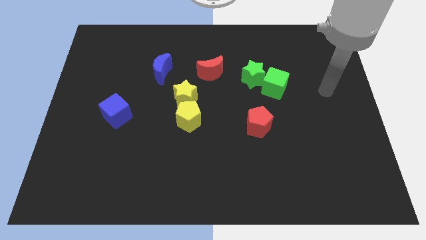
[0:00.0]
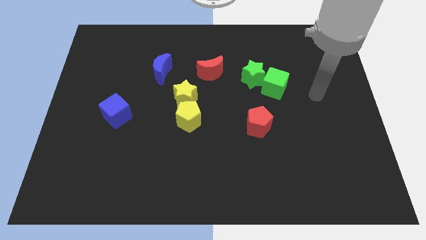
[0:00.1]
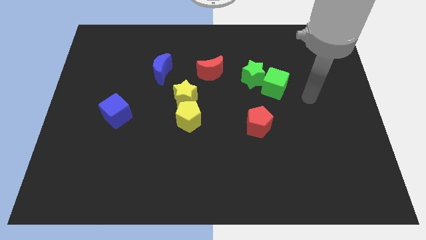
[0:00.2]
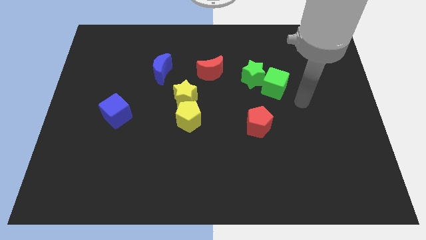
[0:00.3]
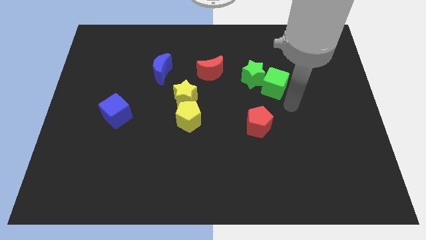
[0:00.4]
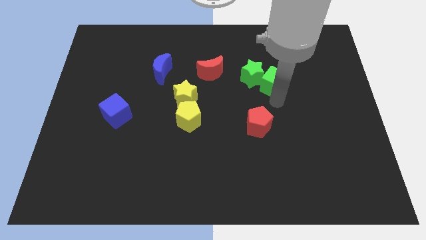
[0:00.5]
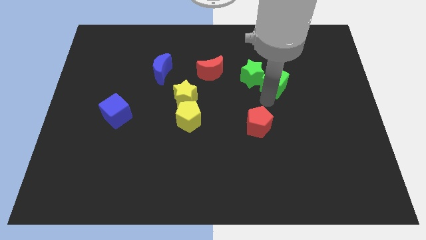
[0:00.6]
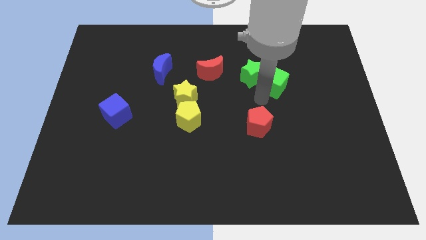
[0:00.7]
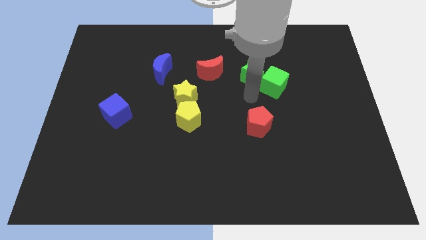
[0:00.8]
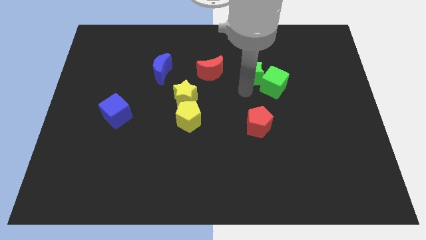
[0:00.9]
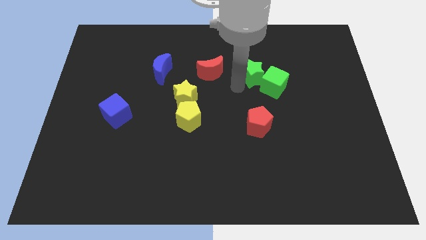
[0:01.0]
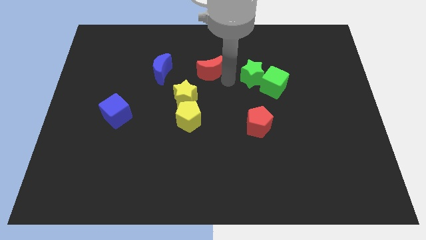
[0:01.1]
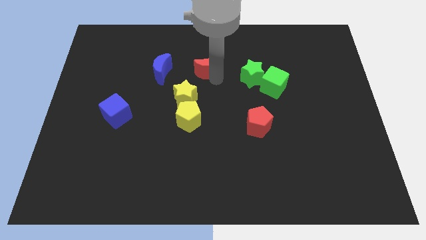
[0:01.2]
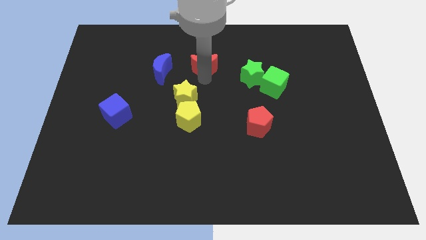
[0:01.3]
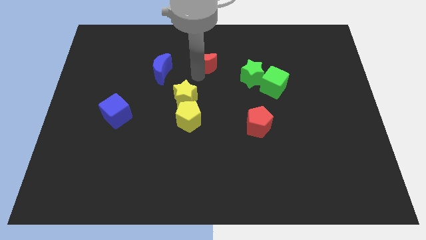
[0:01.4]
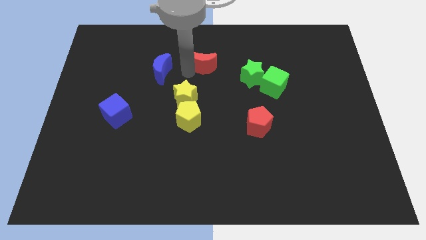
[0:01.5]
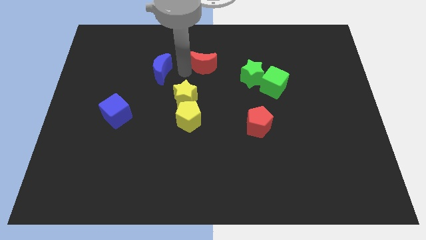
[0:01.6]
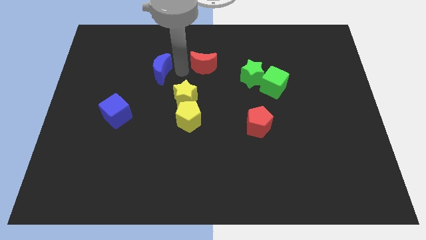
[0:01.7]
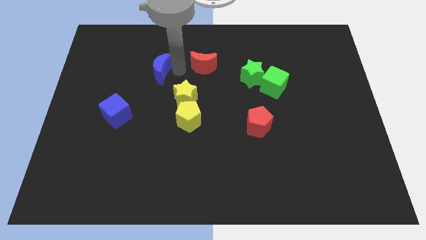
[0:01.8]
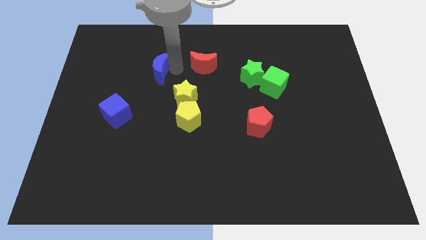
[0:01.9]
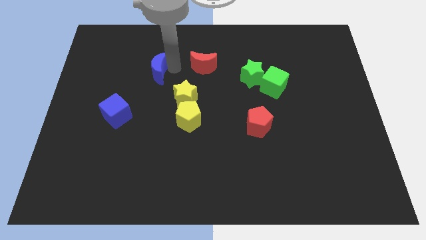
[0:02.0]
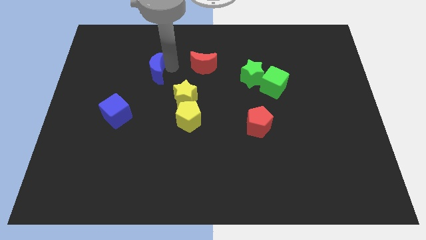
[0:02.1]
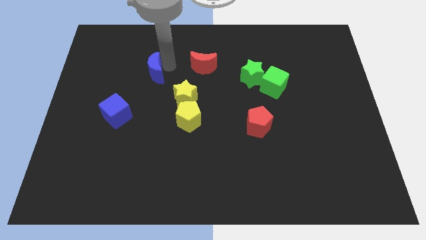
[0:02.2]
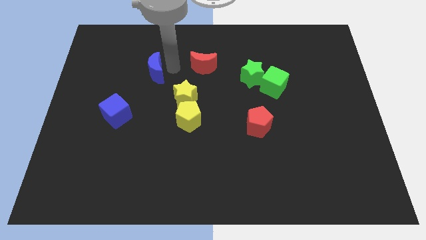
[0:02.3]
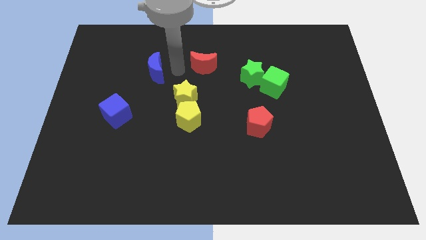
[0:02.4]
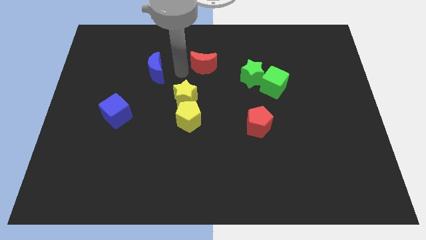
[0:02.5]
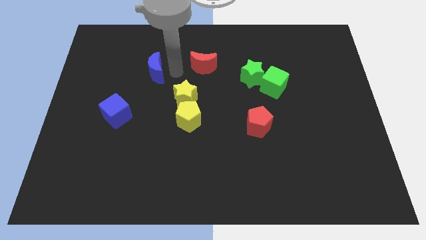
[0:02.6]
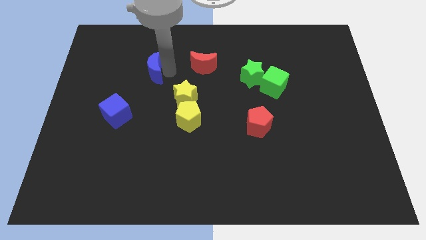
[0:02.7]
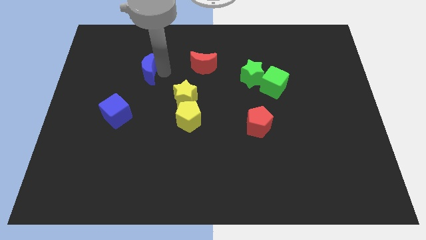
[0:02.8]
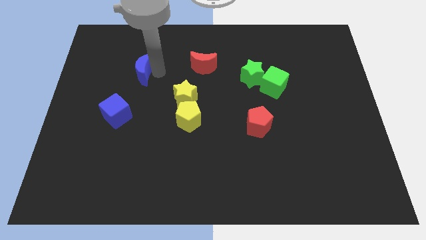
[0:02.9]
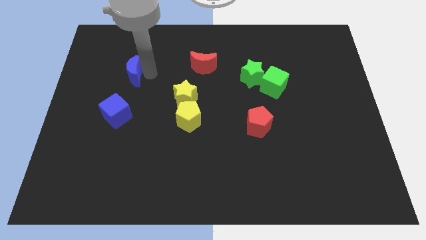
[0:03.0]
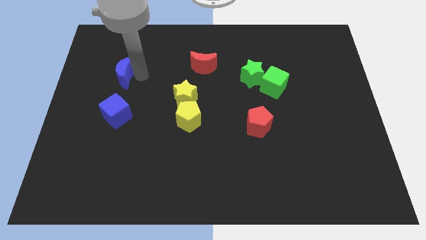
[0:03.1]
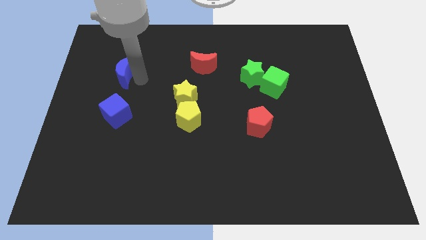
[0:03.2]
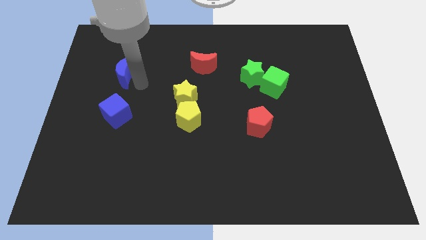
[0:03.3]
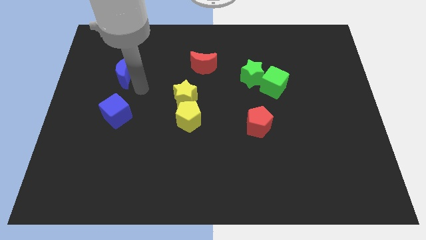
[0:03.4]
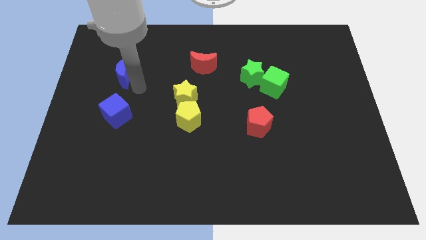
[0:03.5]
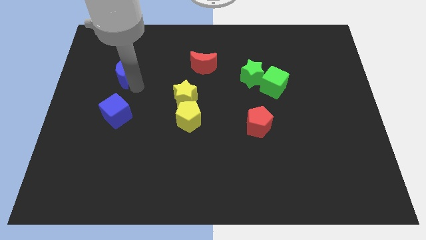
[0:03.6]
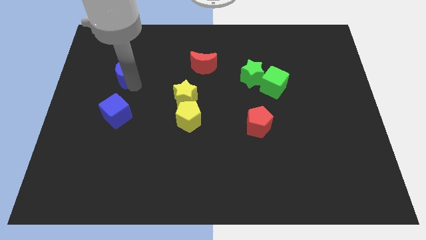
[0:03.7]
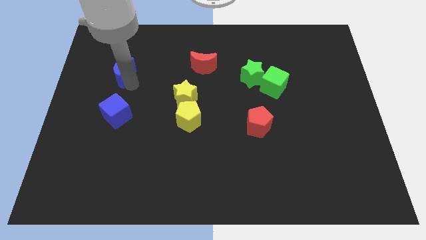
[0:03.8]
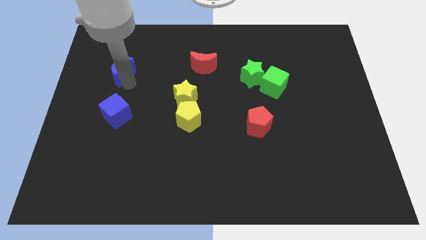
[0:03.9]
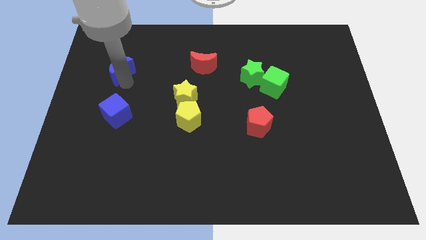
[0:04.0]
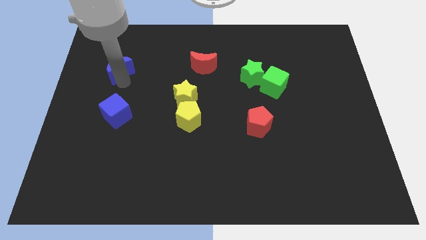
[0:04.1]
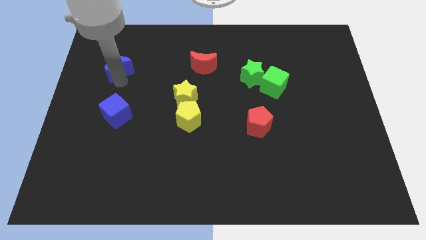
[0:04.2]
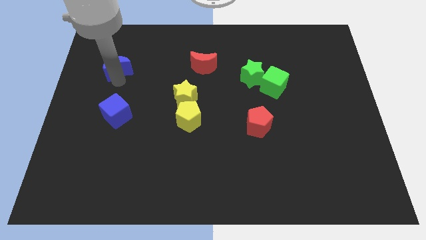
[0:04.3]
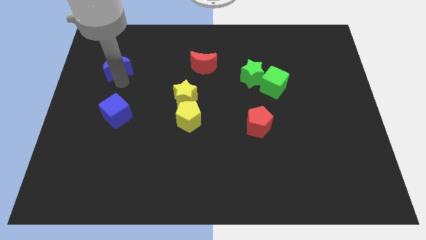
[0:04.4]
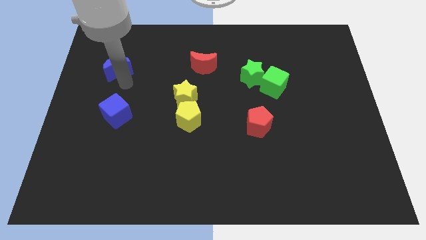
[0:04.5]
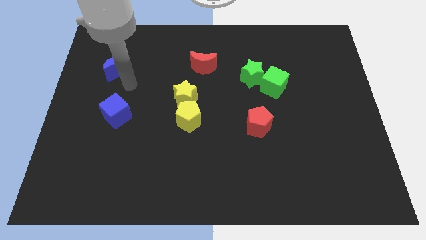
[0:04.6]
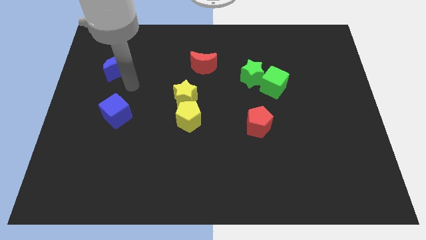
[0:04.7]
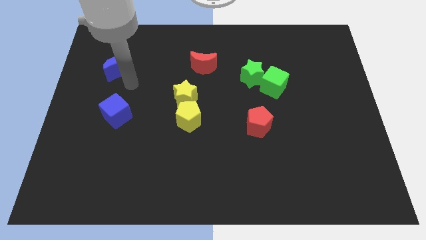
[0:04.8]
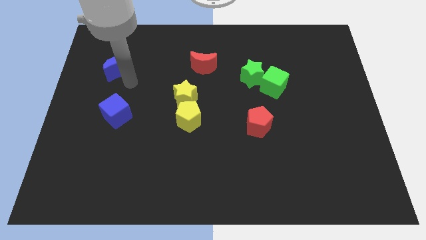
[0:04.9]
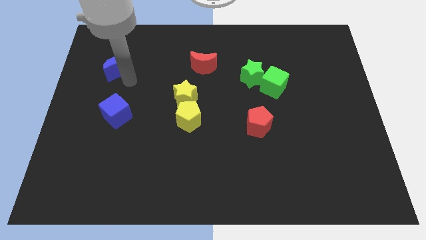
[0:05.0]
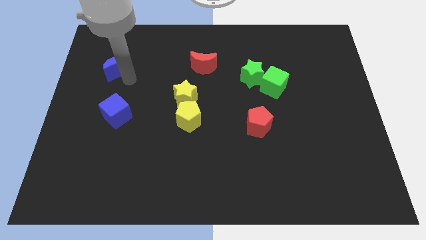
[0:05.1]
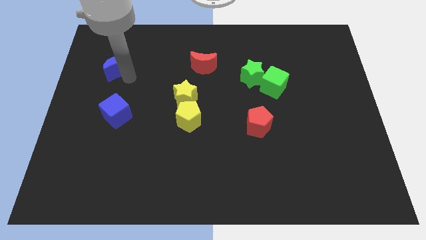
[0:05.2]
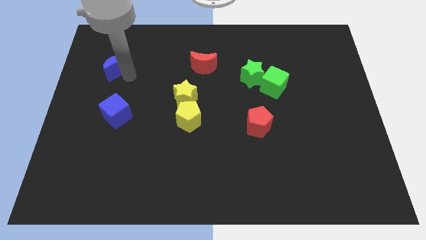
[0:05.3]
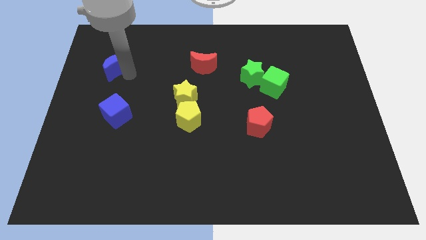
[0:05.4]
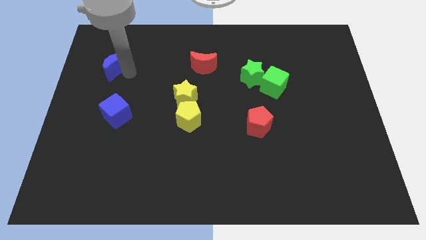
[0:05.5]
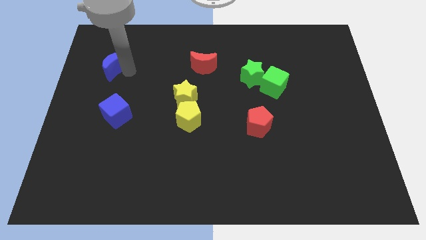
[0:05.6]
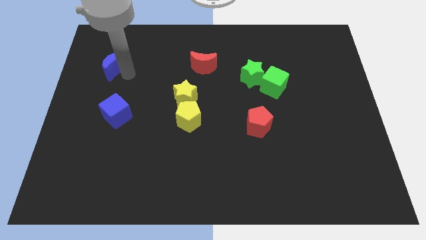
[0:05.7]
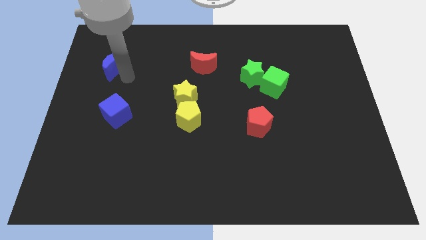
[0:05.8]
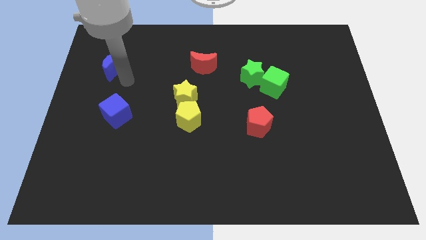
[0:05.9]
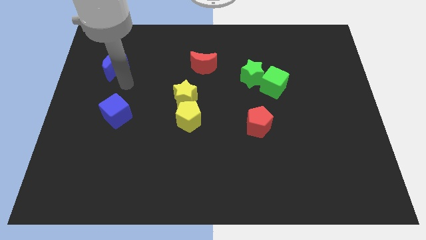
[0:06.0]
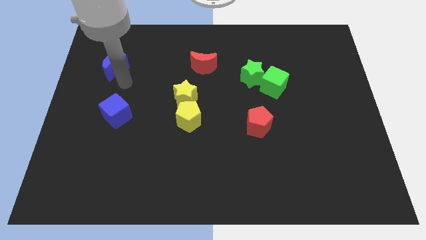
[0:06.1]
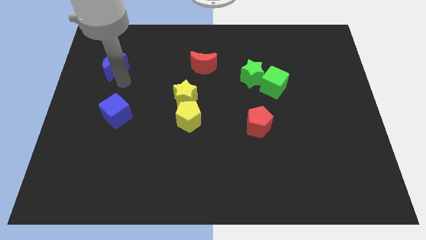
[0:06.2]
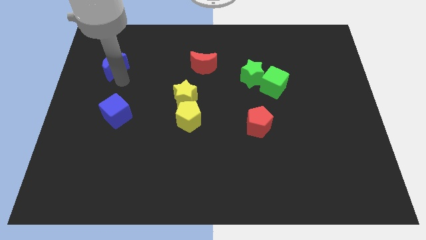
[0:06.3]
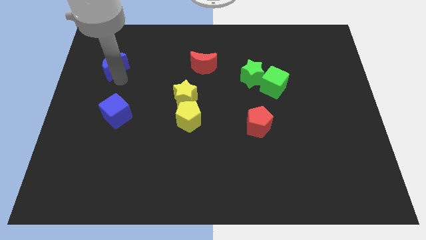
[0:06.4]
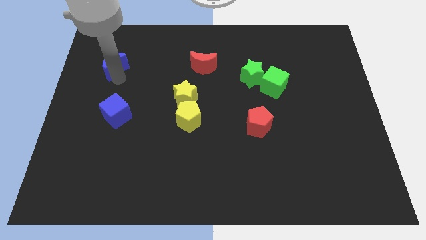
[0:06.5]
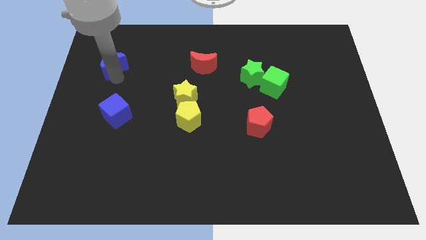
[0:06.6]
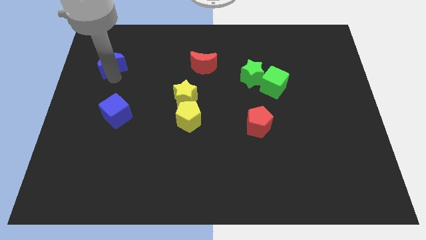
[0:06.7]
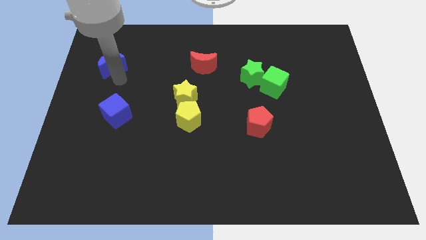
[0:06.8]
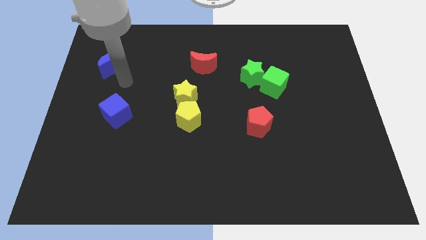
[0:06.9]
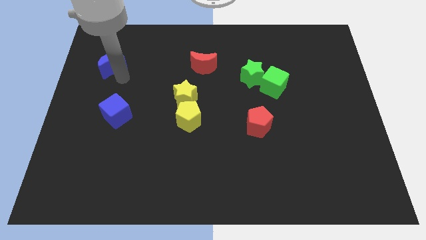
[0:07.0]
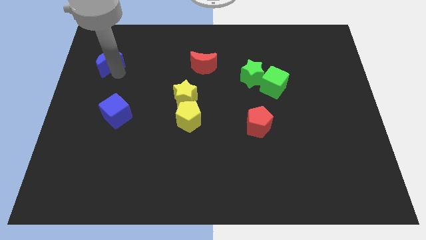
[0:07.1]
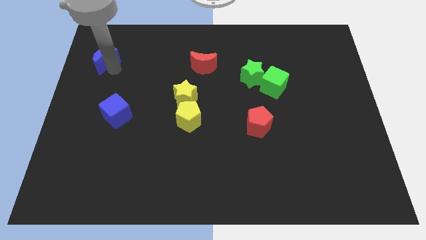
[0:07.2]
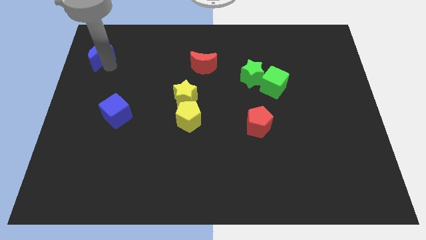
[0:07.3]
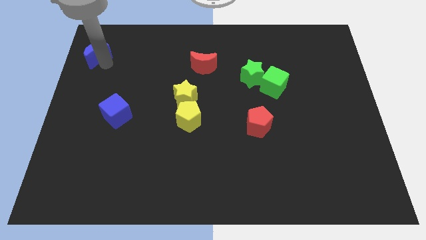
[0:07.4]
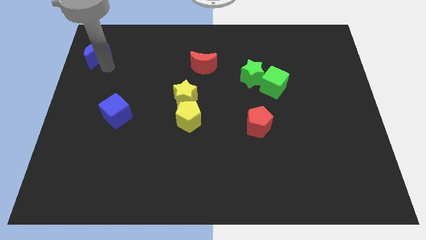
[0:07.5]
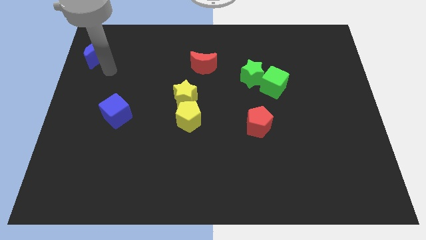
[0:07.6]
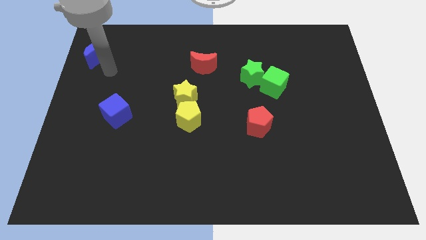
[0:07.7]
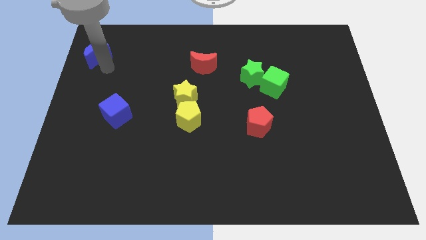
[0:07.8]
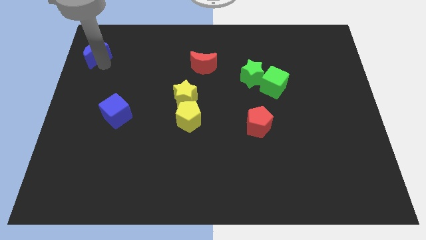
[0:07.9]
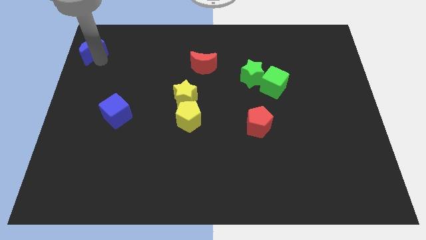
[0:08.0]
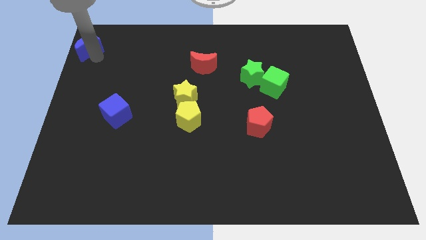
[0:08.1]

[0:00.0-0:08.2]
push the blue moon to the top left
